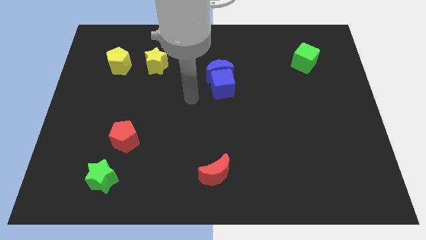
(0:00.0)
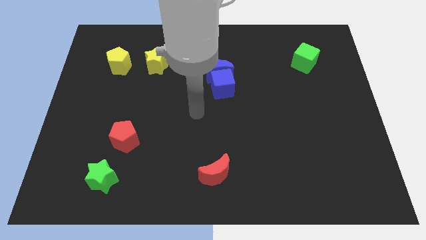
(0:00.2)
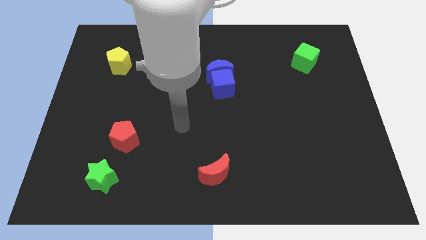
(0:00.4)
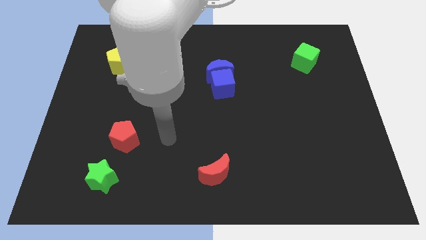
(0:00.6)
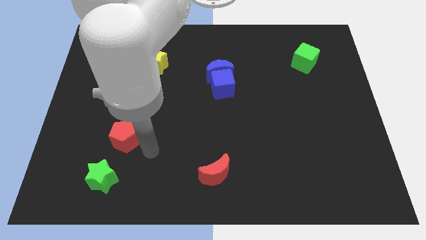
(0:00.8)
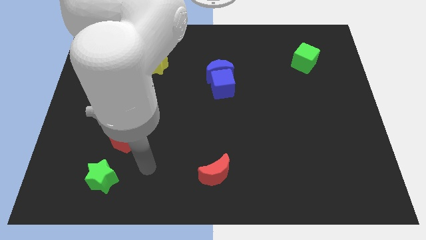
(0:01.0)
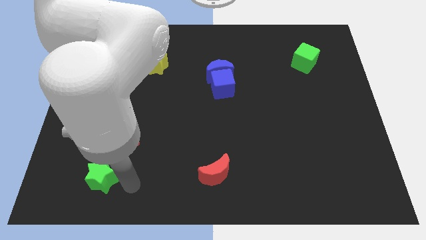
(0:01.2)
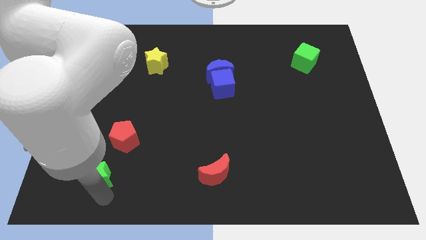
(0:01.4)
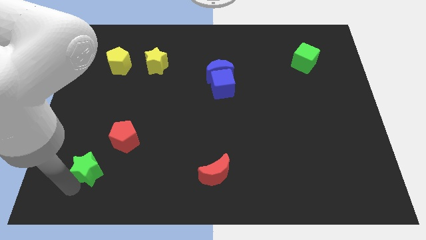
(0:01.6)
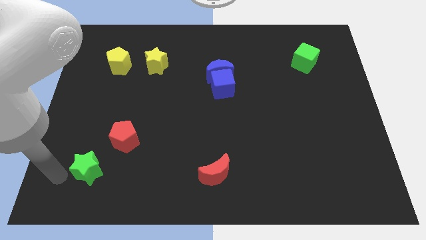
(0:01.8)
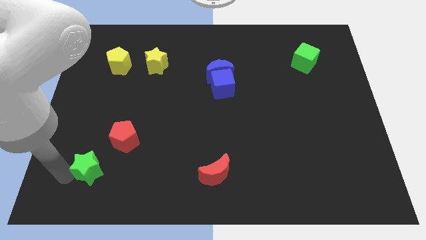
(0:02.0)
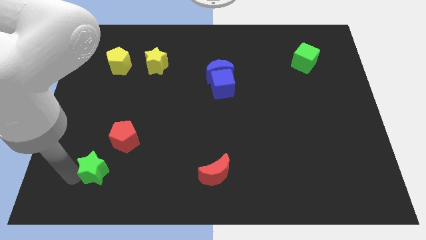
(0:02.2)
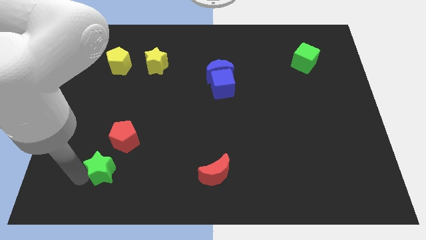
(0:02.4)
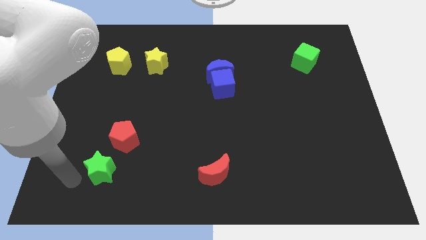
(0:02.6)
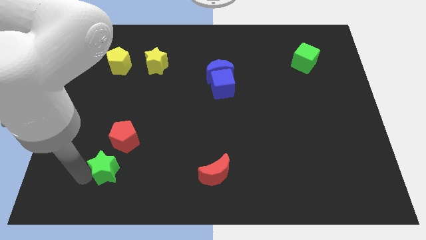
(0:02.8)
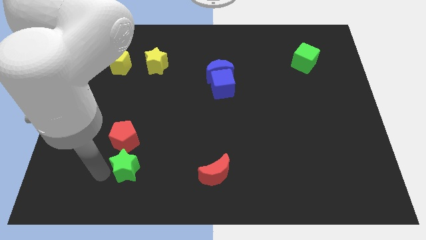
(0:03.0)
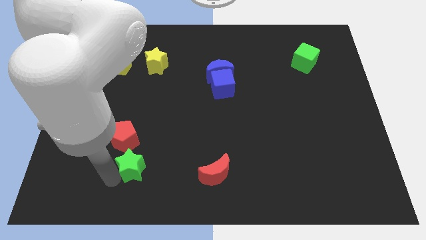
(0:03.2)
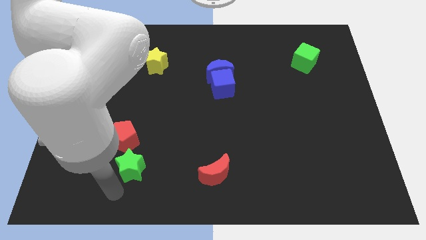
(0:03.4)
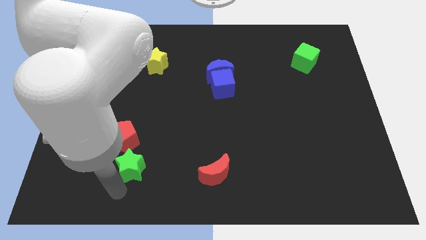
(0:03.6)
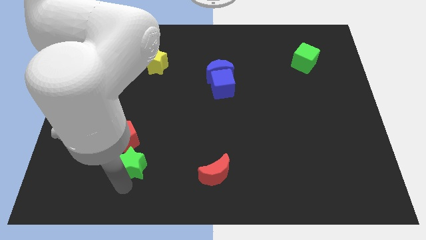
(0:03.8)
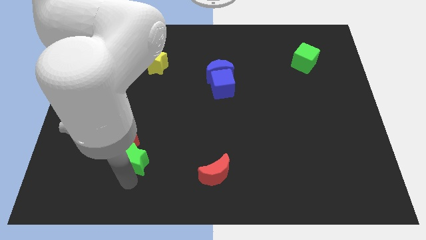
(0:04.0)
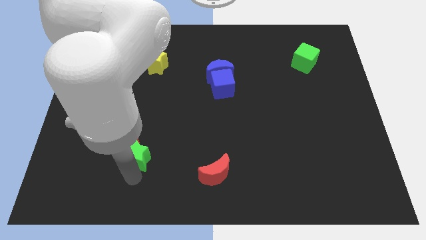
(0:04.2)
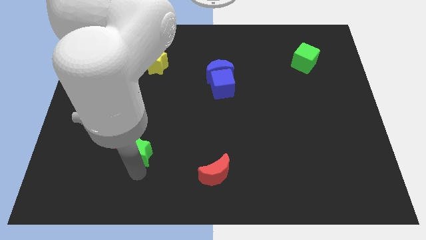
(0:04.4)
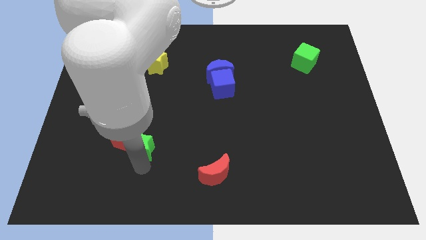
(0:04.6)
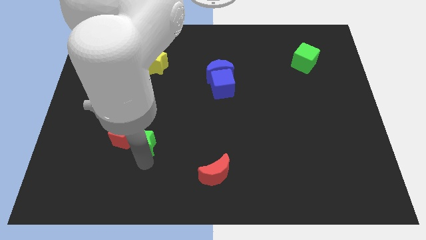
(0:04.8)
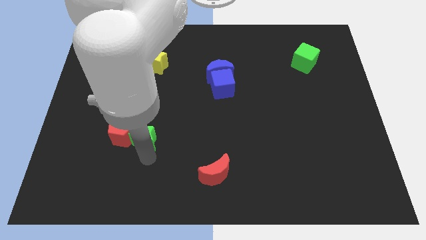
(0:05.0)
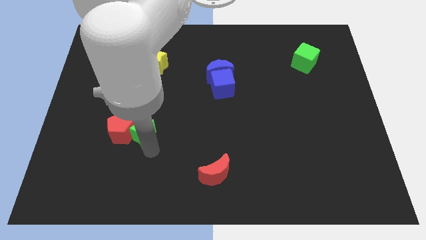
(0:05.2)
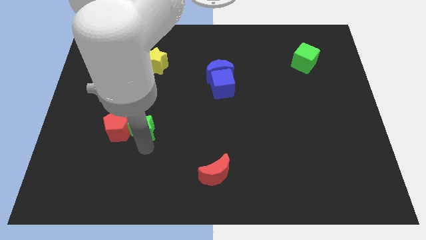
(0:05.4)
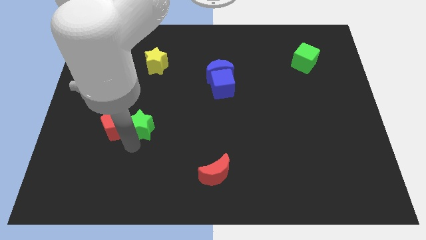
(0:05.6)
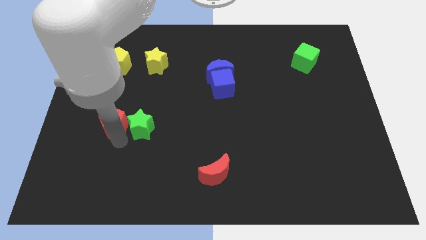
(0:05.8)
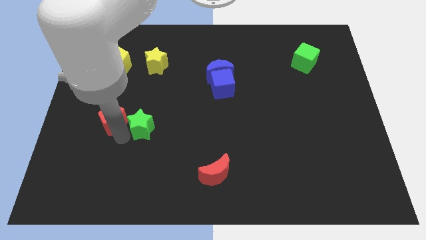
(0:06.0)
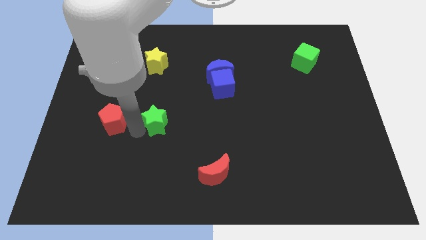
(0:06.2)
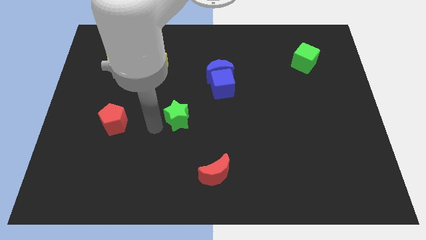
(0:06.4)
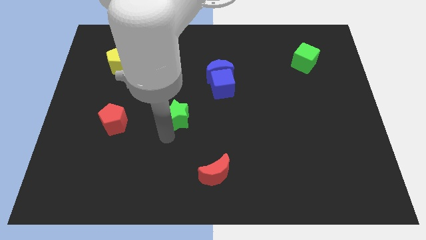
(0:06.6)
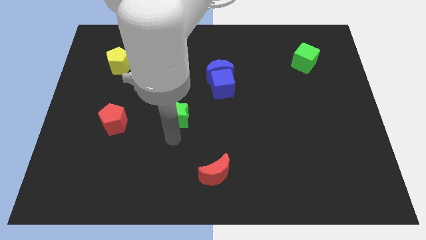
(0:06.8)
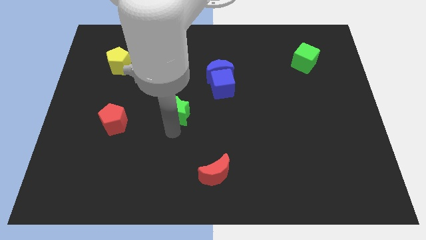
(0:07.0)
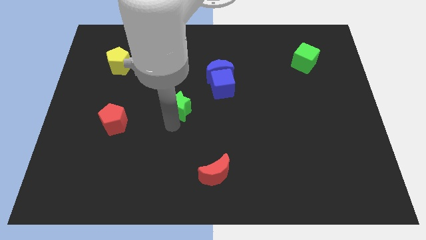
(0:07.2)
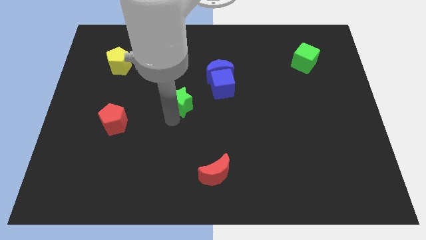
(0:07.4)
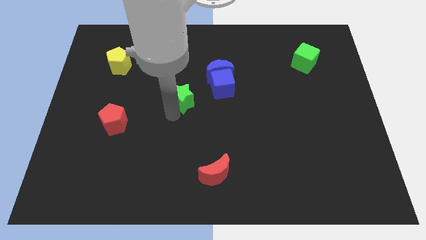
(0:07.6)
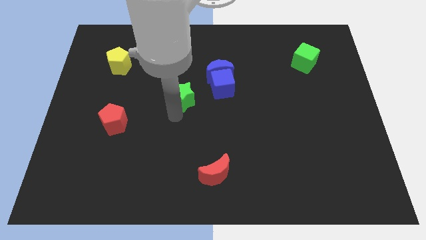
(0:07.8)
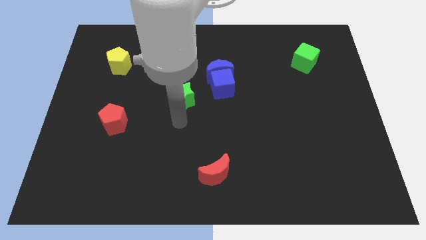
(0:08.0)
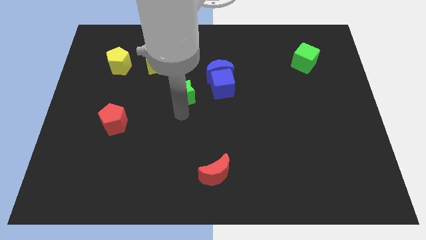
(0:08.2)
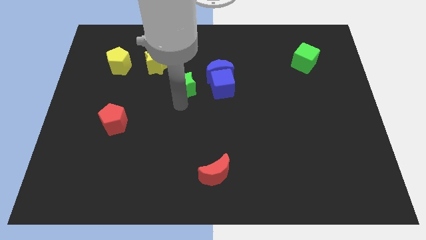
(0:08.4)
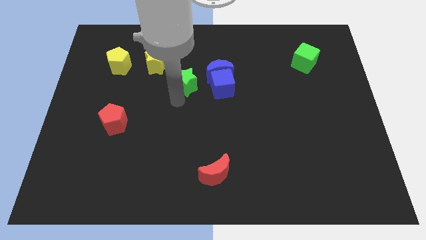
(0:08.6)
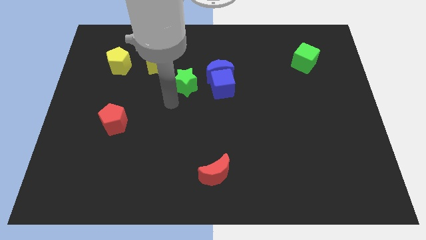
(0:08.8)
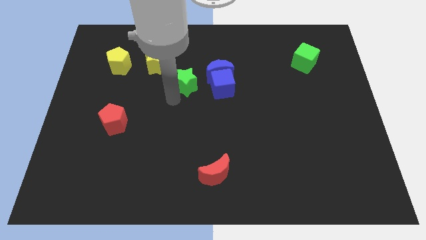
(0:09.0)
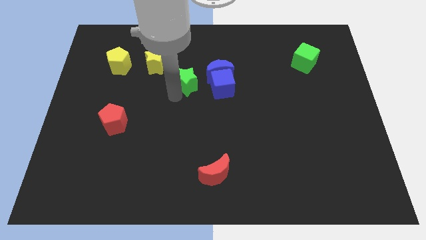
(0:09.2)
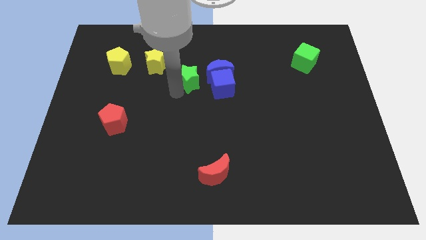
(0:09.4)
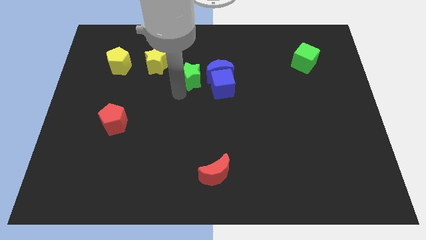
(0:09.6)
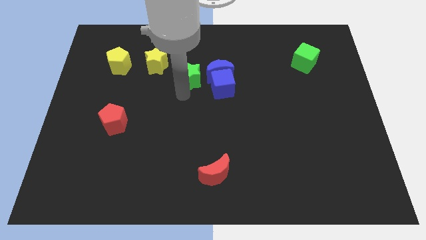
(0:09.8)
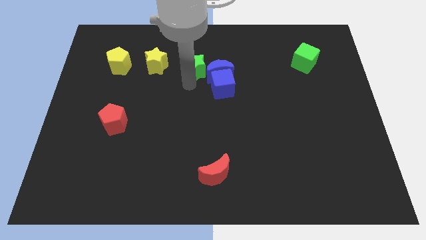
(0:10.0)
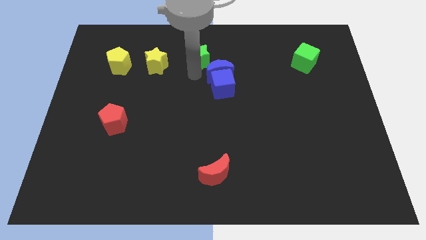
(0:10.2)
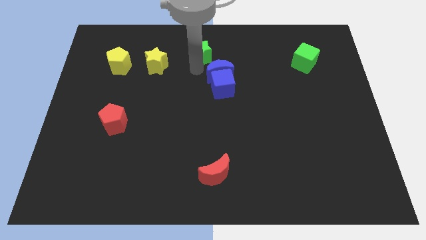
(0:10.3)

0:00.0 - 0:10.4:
push the green star to the top

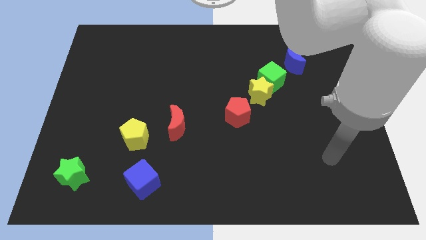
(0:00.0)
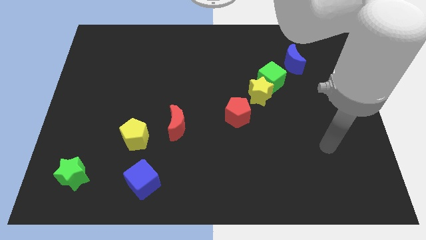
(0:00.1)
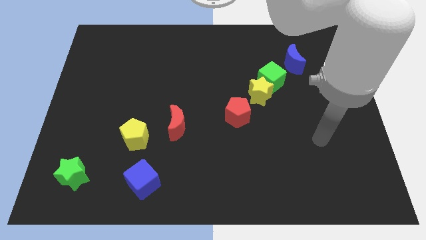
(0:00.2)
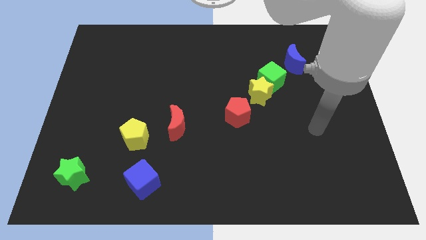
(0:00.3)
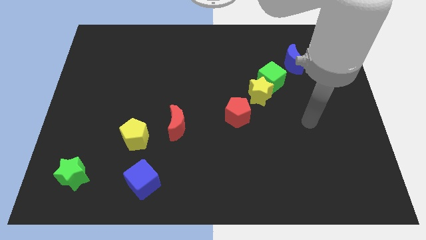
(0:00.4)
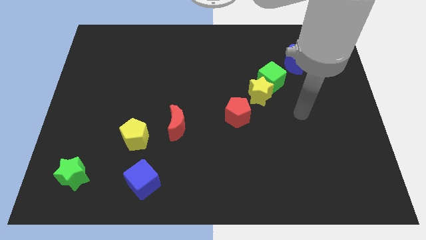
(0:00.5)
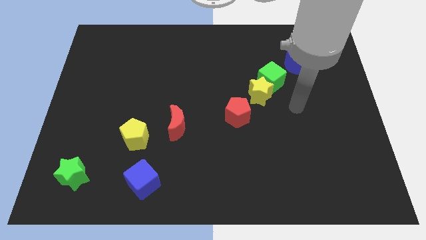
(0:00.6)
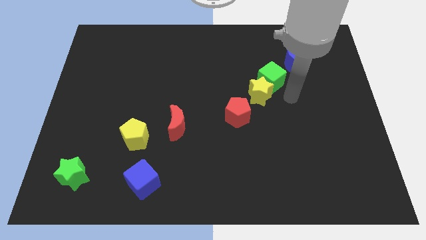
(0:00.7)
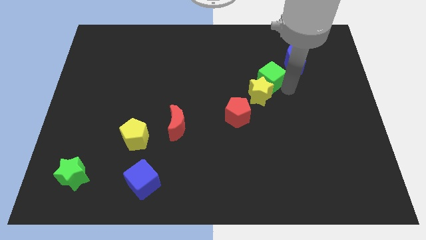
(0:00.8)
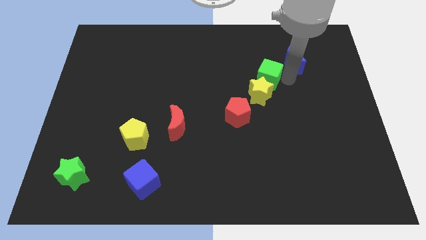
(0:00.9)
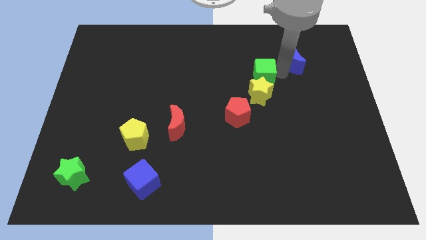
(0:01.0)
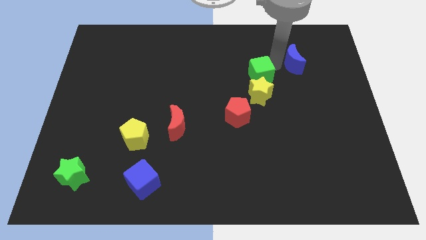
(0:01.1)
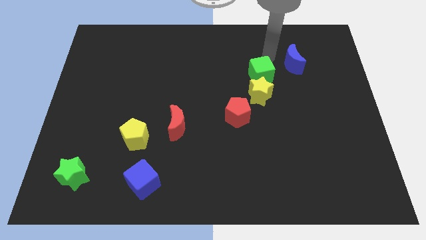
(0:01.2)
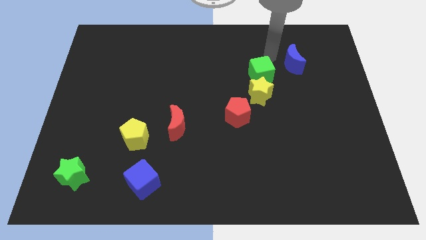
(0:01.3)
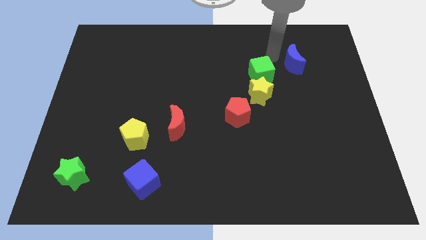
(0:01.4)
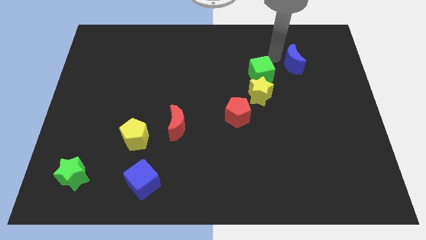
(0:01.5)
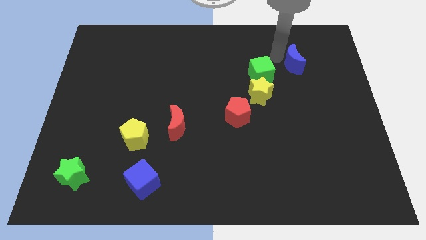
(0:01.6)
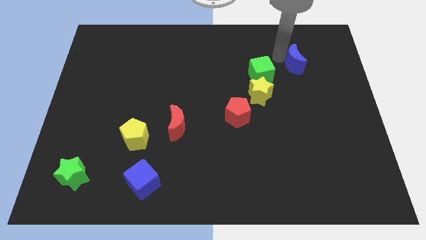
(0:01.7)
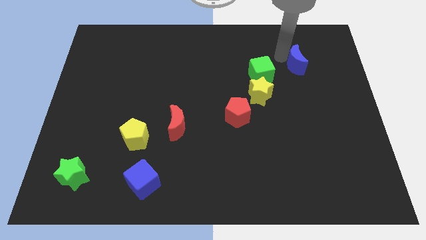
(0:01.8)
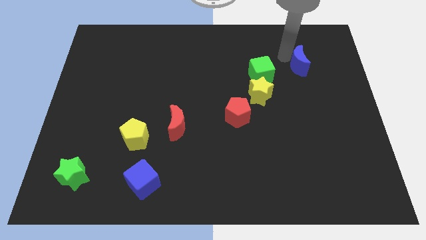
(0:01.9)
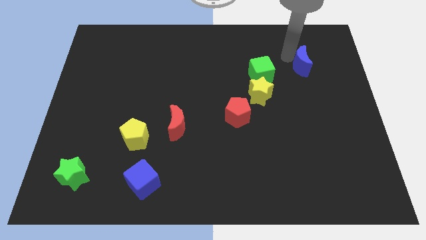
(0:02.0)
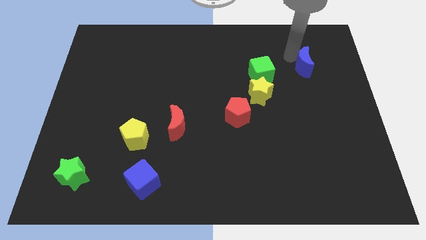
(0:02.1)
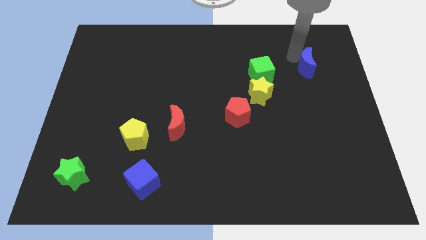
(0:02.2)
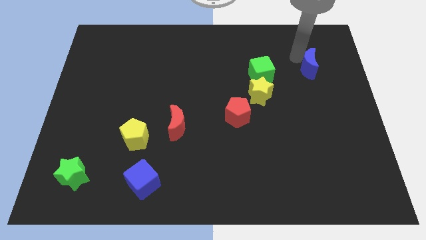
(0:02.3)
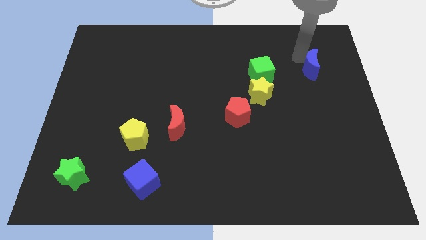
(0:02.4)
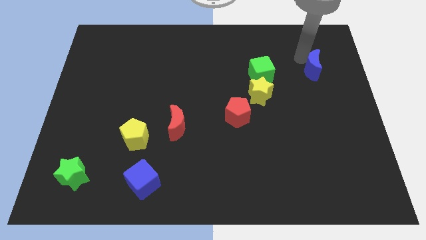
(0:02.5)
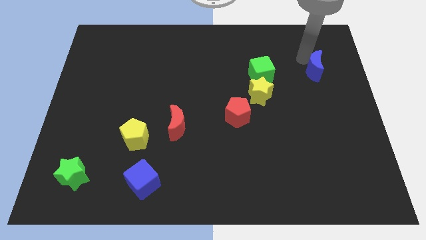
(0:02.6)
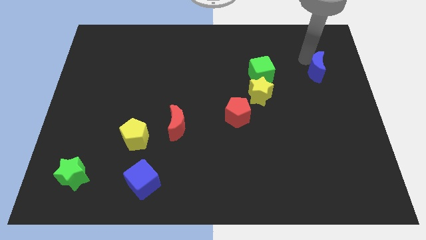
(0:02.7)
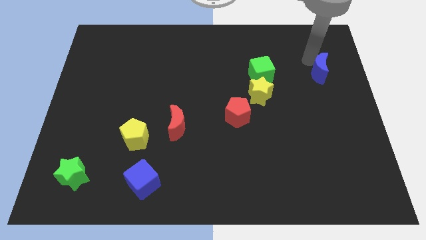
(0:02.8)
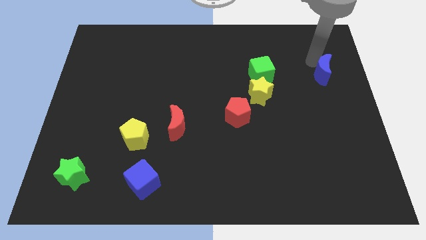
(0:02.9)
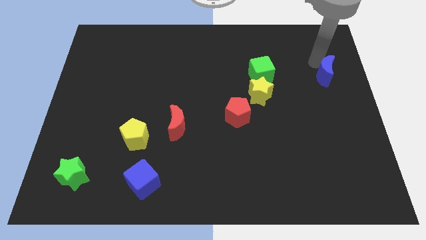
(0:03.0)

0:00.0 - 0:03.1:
put the blue moon to the center right
